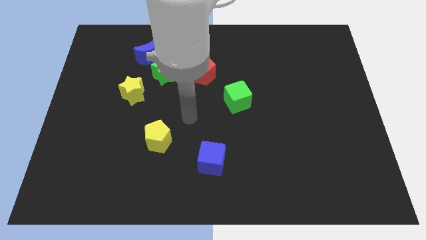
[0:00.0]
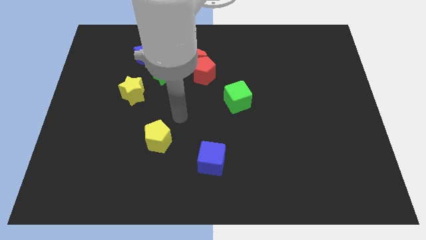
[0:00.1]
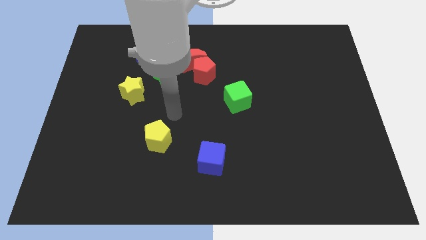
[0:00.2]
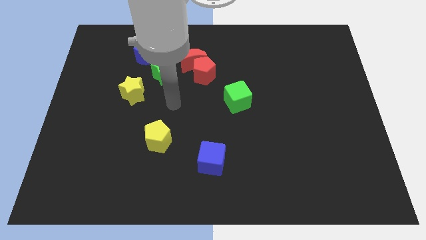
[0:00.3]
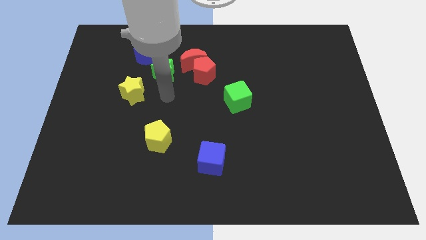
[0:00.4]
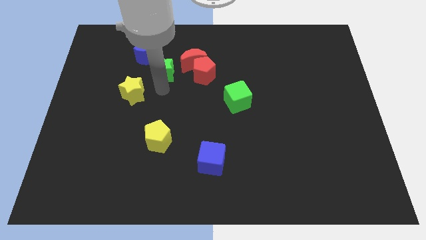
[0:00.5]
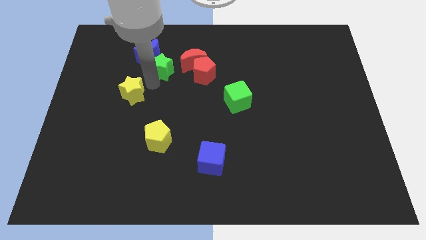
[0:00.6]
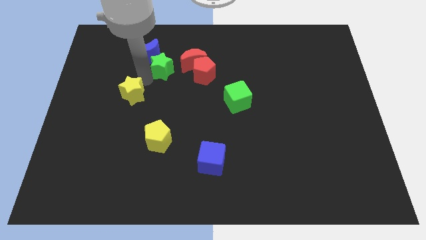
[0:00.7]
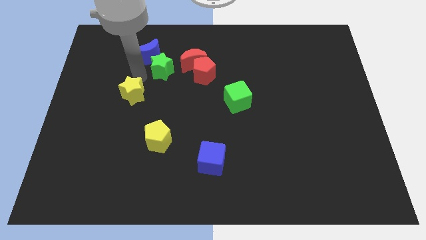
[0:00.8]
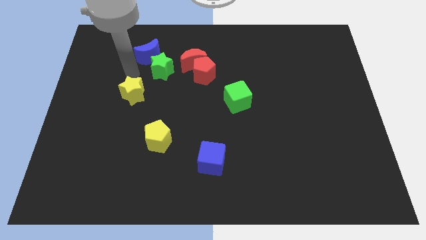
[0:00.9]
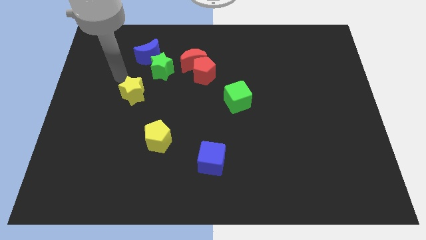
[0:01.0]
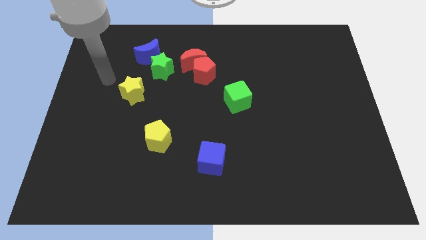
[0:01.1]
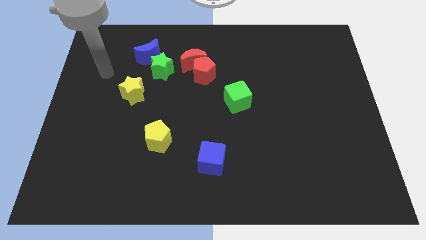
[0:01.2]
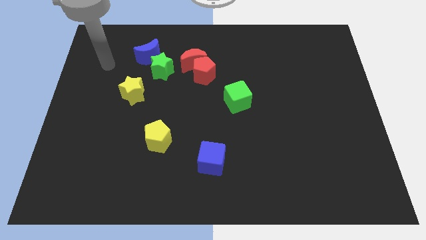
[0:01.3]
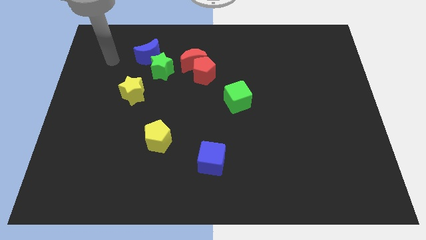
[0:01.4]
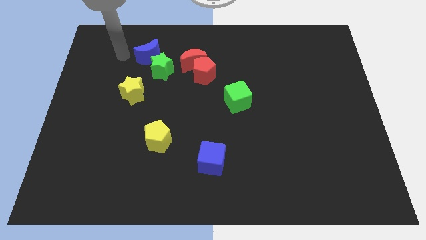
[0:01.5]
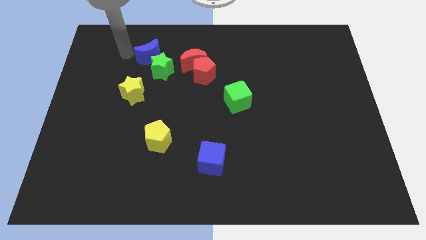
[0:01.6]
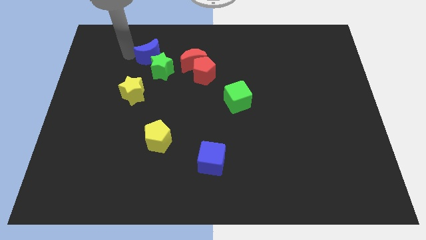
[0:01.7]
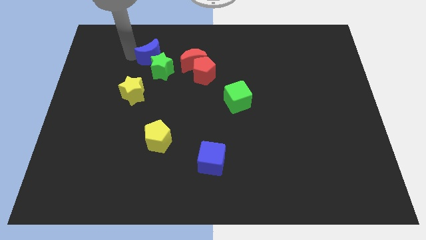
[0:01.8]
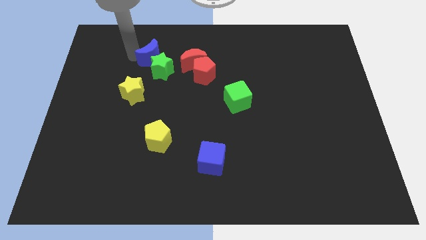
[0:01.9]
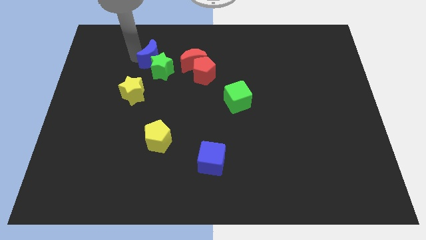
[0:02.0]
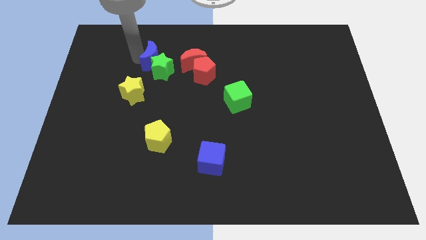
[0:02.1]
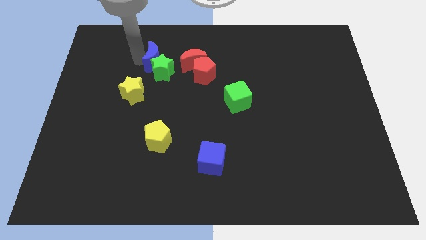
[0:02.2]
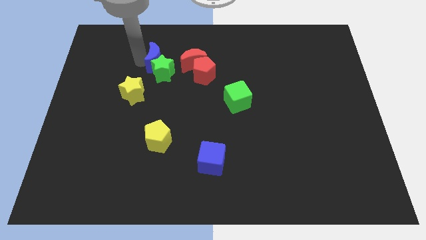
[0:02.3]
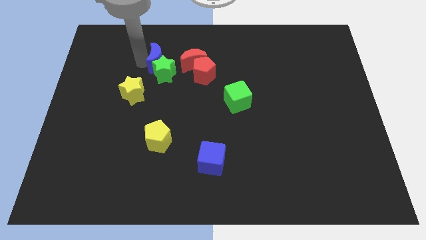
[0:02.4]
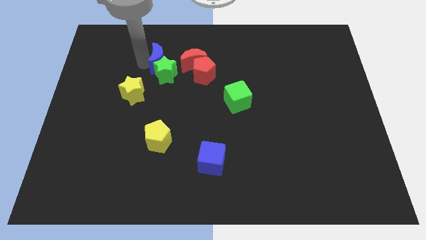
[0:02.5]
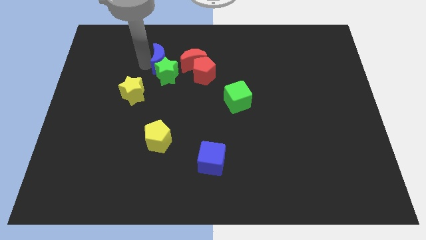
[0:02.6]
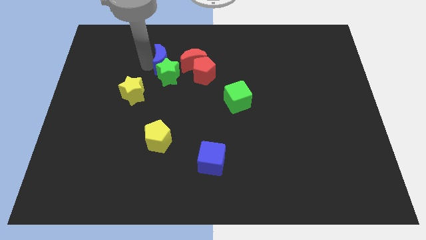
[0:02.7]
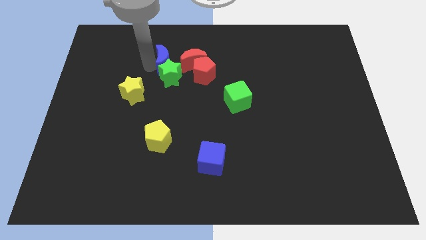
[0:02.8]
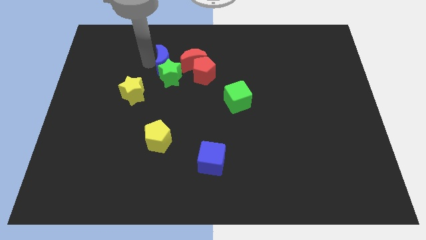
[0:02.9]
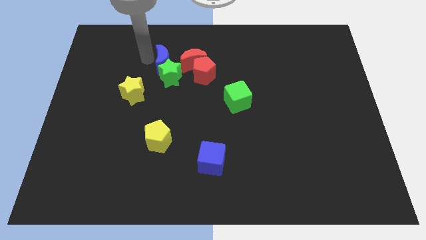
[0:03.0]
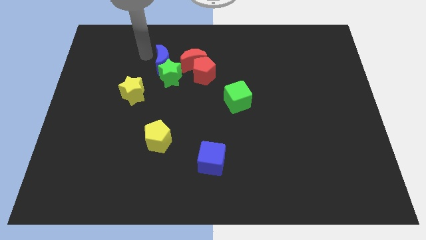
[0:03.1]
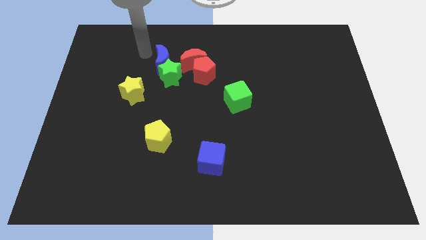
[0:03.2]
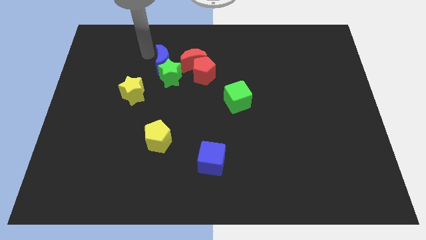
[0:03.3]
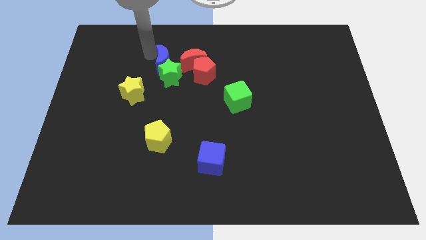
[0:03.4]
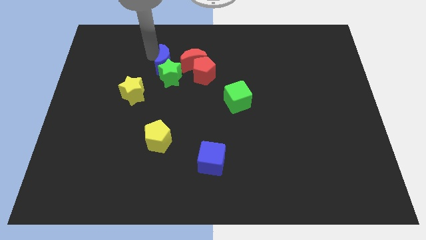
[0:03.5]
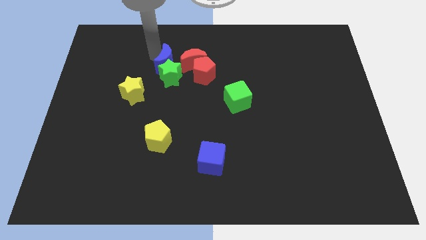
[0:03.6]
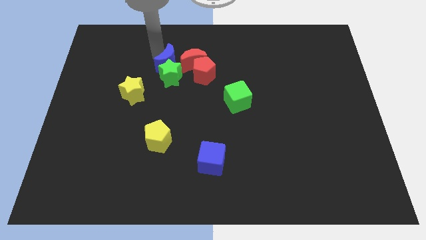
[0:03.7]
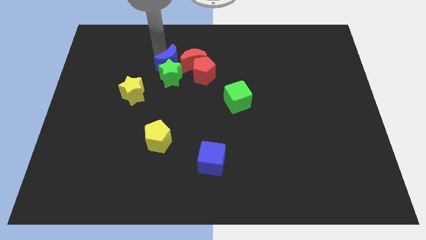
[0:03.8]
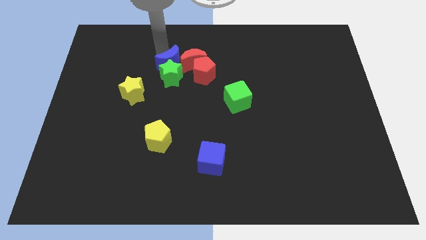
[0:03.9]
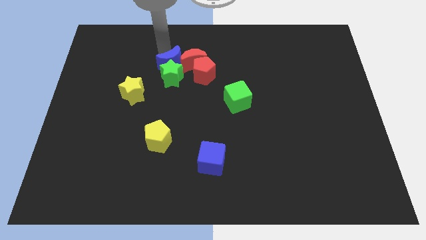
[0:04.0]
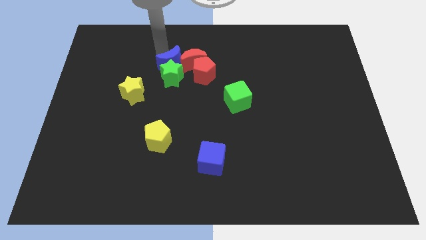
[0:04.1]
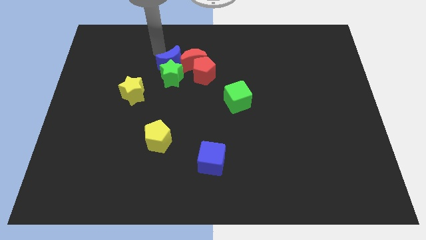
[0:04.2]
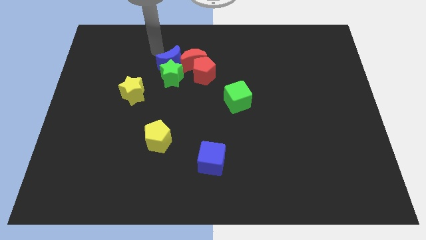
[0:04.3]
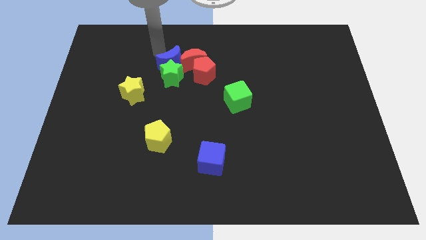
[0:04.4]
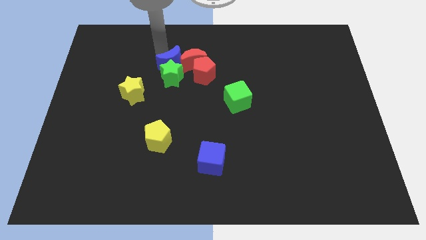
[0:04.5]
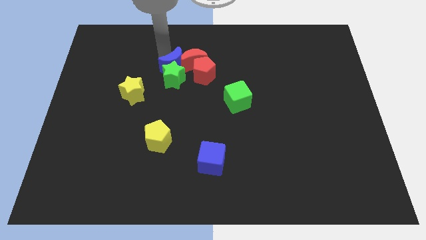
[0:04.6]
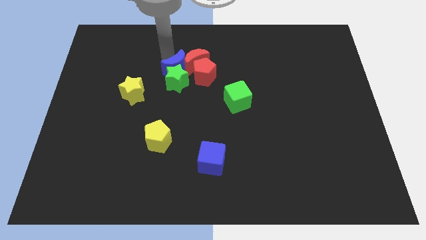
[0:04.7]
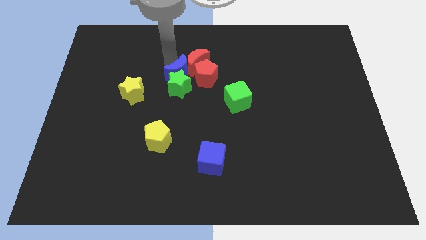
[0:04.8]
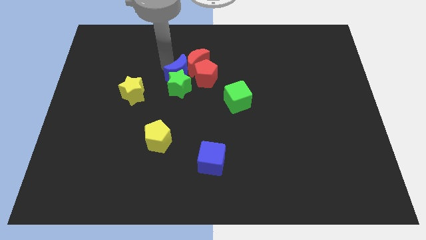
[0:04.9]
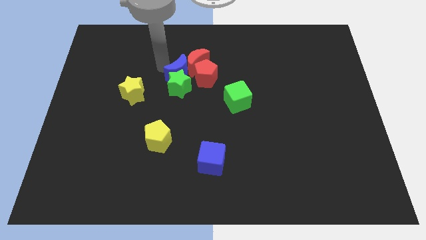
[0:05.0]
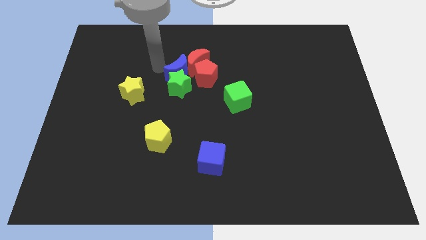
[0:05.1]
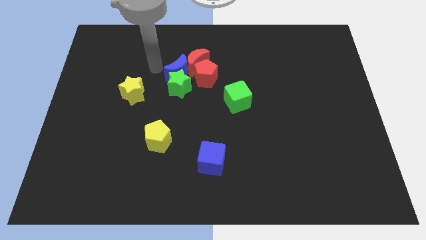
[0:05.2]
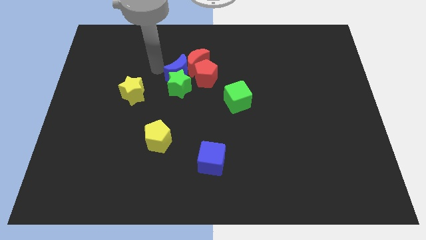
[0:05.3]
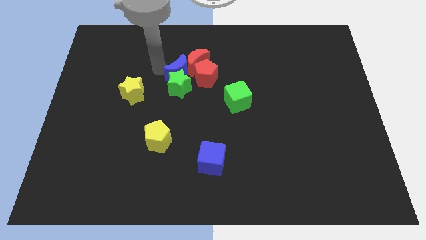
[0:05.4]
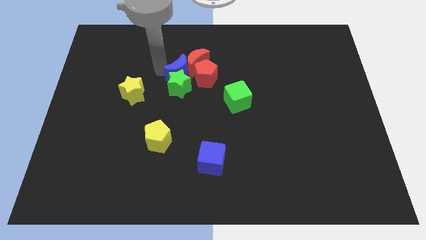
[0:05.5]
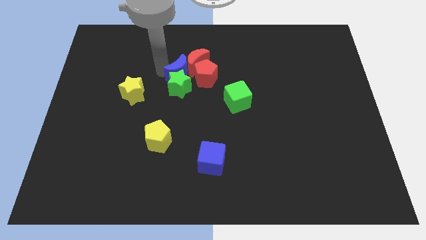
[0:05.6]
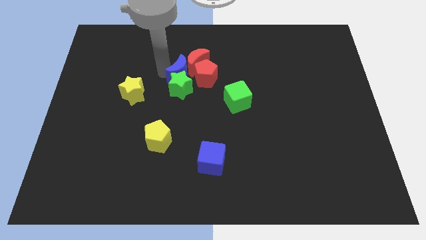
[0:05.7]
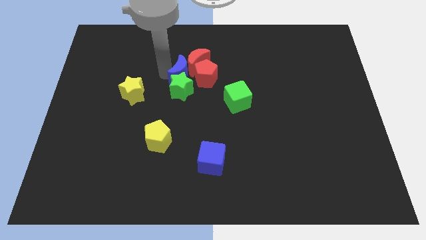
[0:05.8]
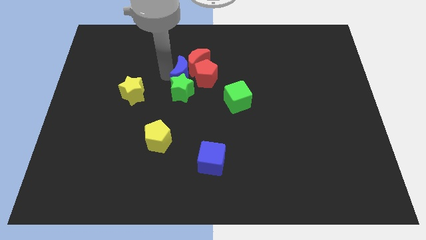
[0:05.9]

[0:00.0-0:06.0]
move the blue moon towards the red pentagon

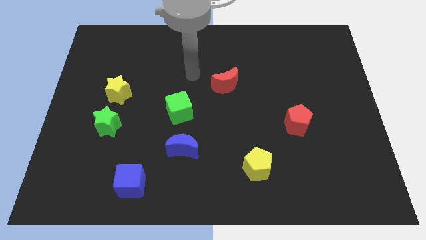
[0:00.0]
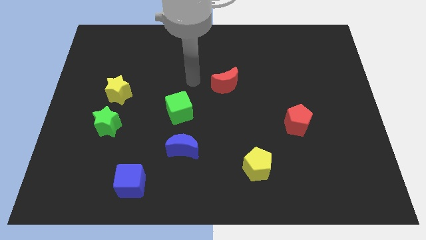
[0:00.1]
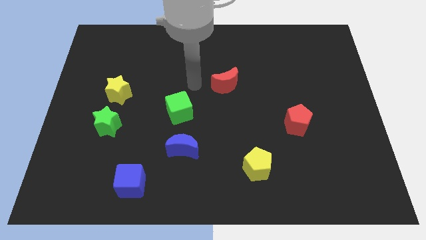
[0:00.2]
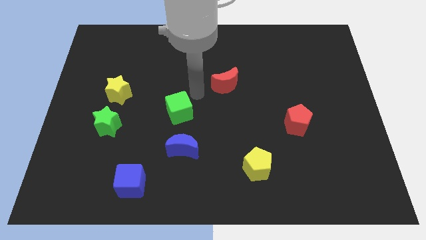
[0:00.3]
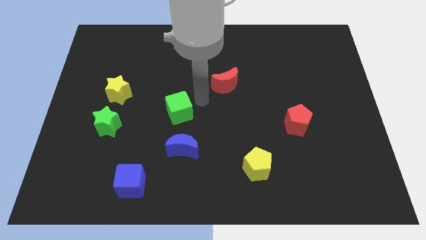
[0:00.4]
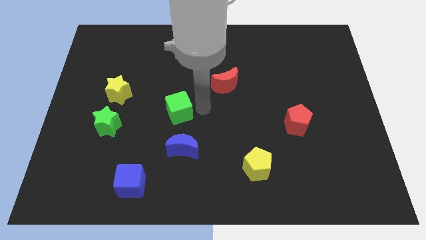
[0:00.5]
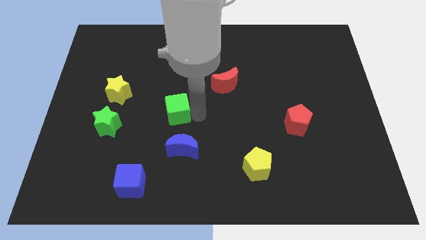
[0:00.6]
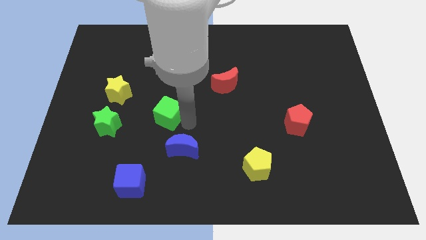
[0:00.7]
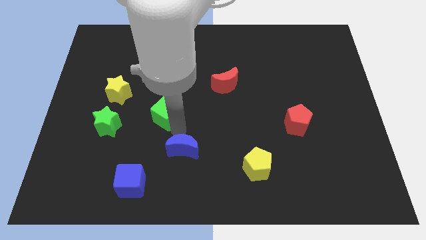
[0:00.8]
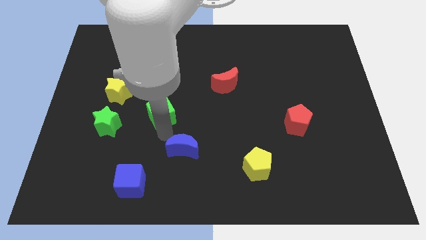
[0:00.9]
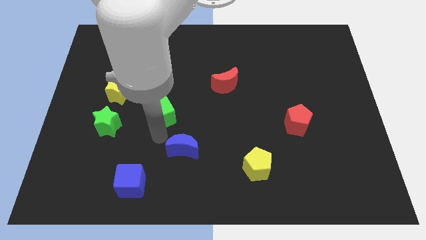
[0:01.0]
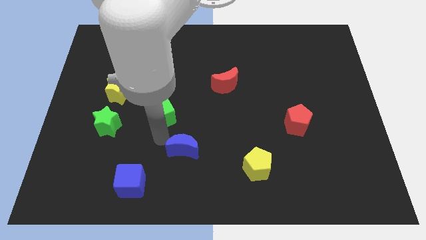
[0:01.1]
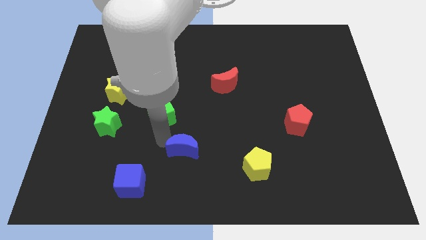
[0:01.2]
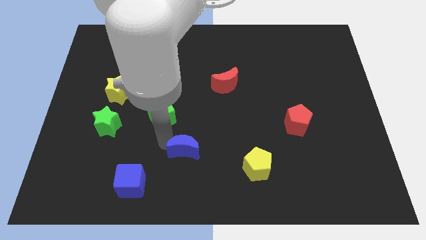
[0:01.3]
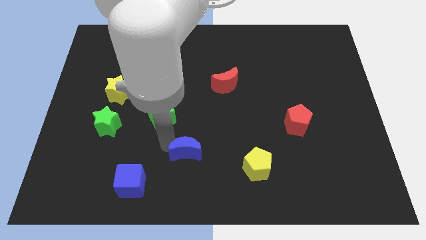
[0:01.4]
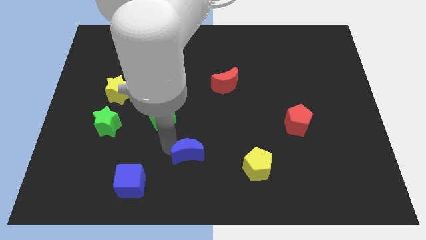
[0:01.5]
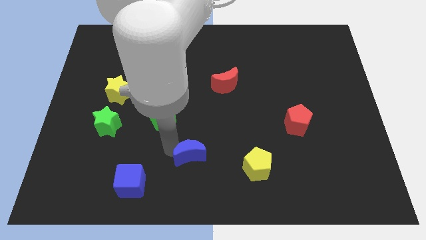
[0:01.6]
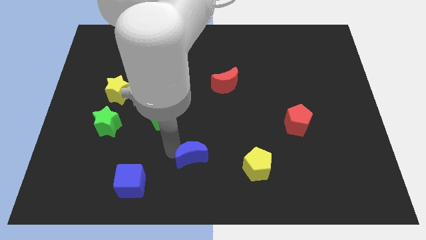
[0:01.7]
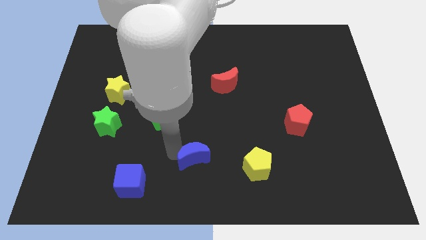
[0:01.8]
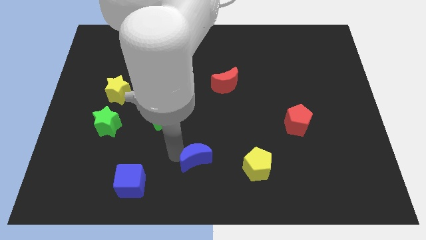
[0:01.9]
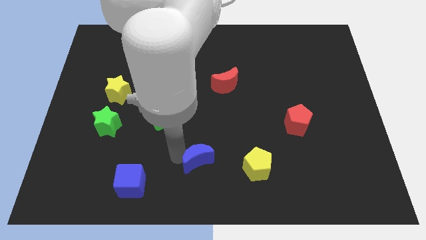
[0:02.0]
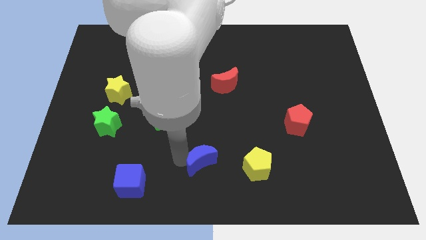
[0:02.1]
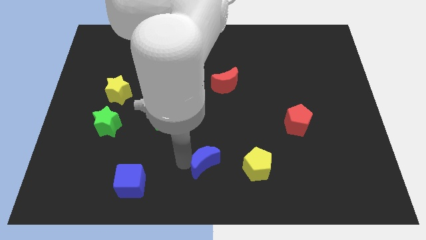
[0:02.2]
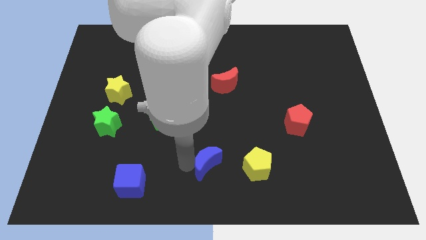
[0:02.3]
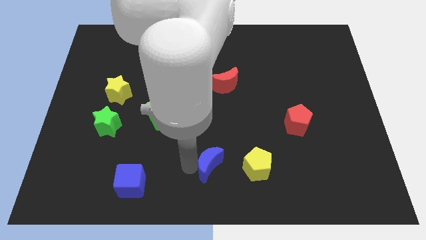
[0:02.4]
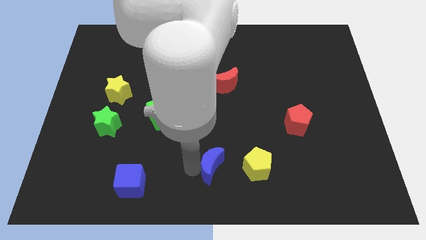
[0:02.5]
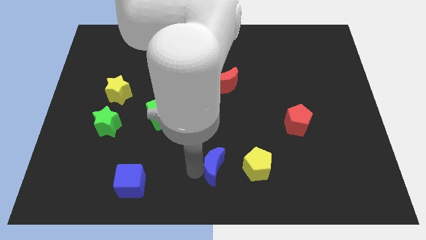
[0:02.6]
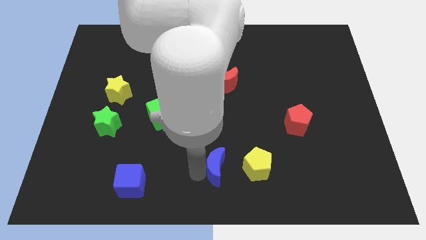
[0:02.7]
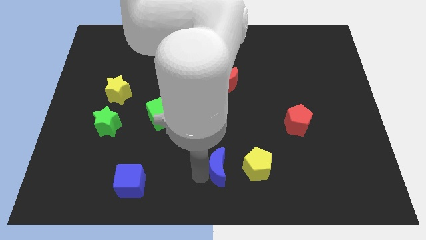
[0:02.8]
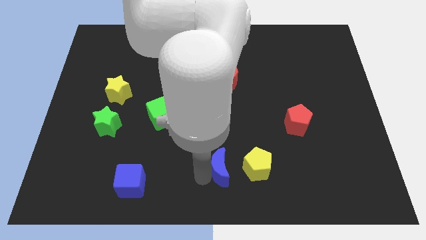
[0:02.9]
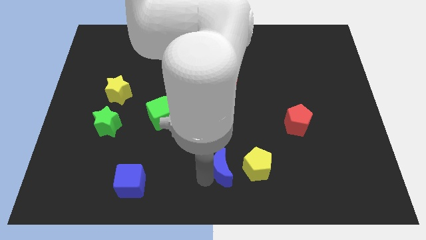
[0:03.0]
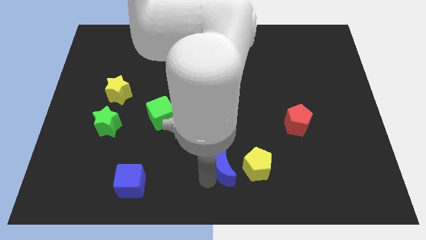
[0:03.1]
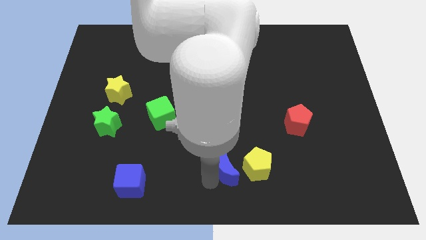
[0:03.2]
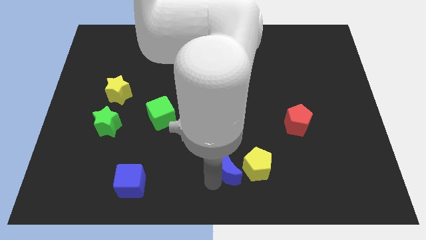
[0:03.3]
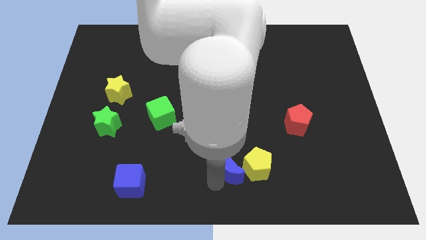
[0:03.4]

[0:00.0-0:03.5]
move the blue moon next to the yellow pentagon
